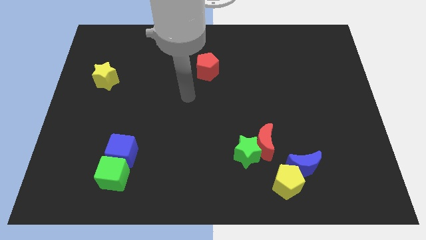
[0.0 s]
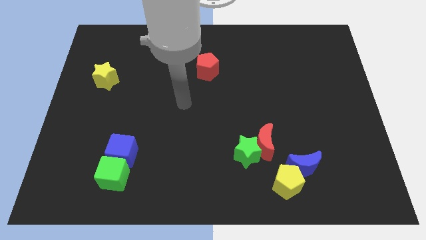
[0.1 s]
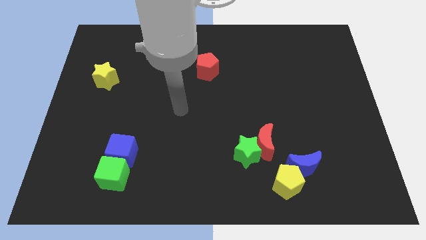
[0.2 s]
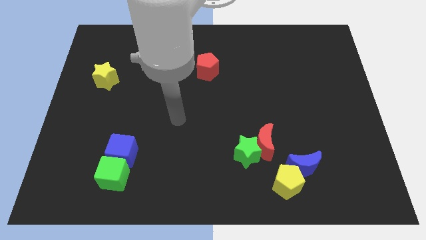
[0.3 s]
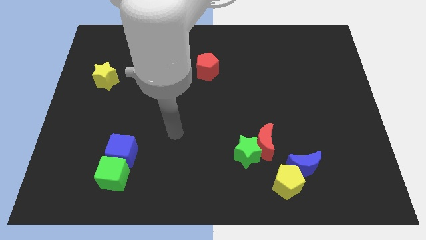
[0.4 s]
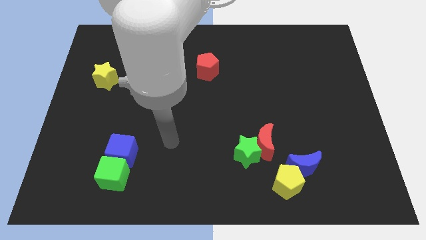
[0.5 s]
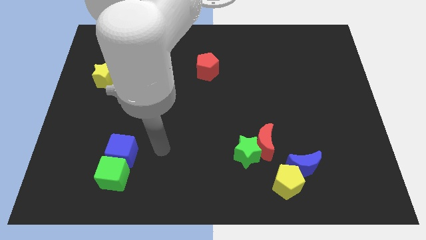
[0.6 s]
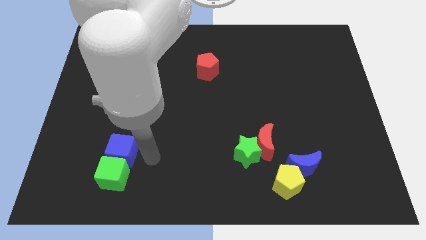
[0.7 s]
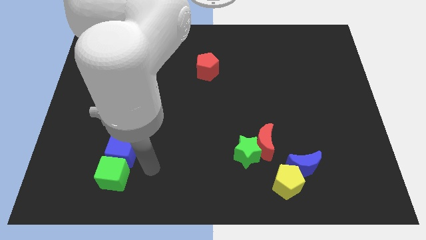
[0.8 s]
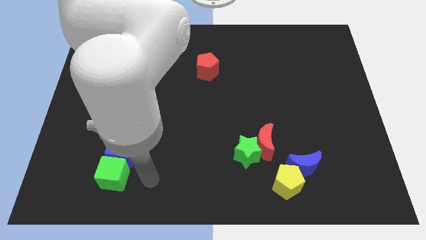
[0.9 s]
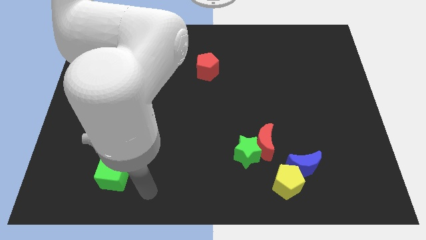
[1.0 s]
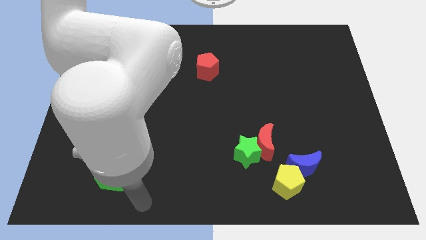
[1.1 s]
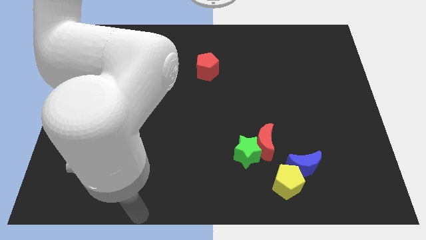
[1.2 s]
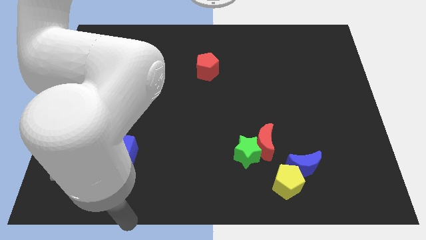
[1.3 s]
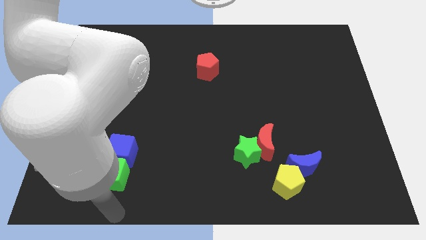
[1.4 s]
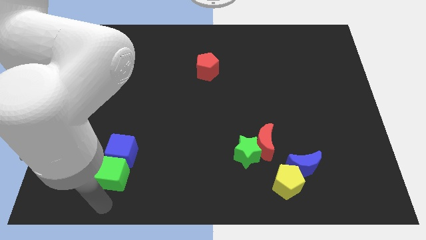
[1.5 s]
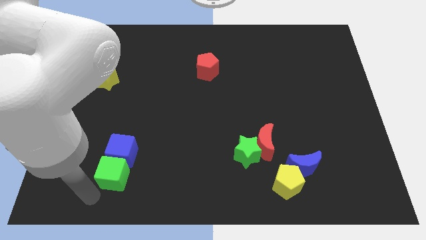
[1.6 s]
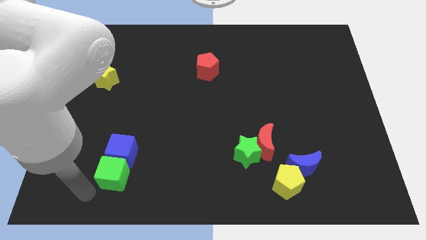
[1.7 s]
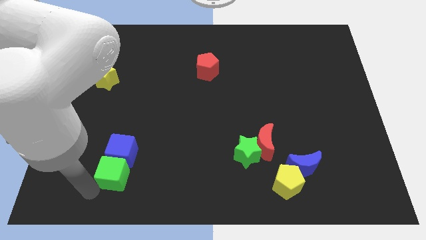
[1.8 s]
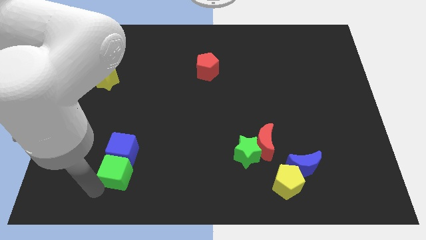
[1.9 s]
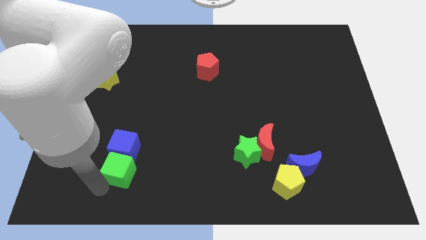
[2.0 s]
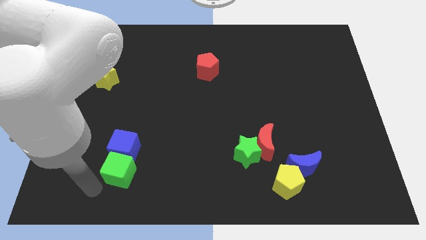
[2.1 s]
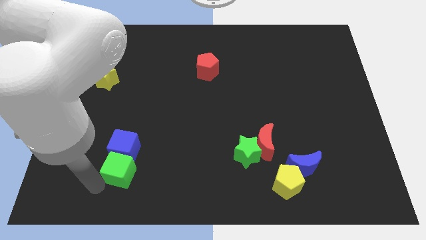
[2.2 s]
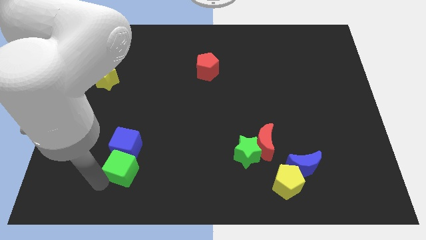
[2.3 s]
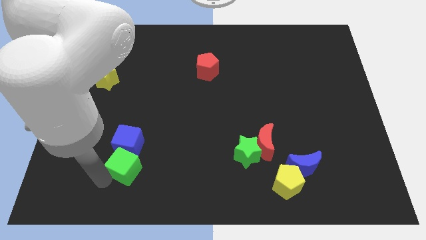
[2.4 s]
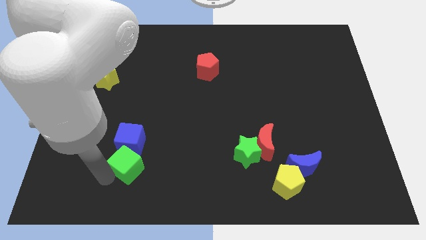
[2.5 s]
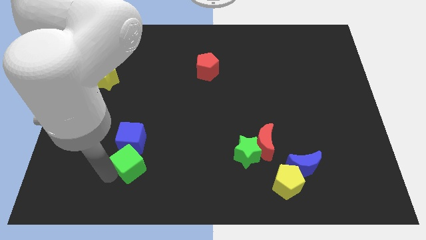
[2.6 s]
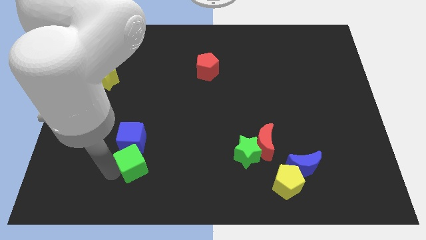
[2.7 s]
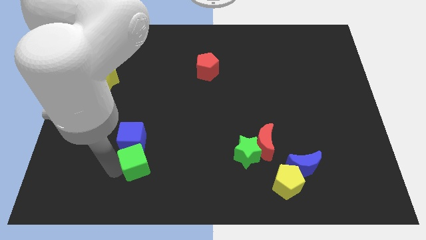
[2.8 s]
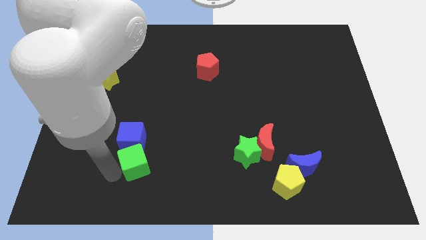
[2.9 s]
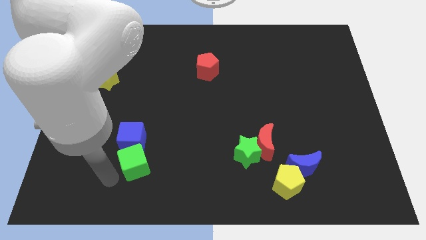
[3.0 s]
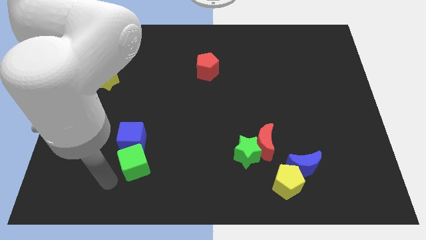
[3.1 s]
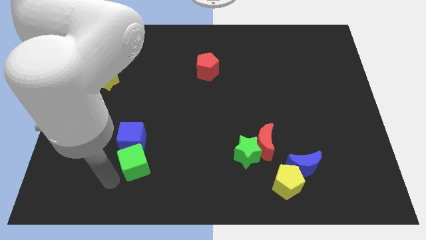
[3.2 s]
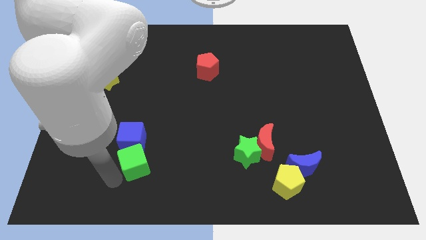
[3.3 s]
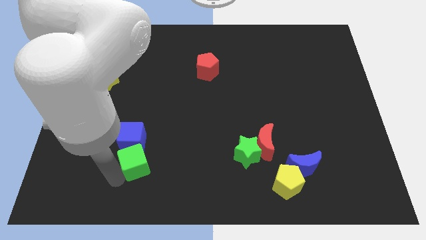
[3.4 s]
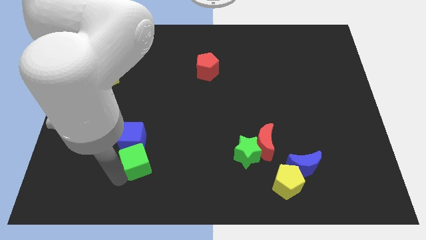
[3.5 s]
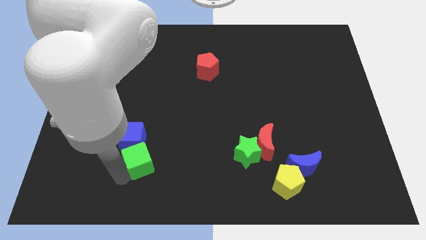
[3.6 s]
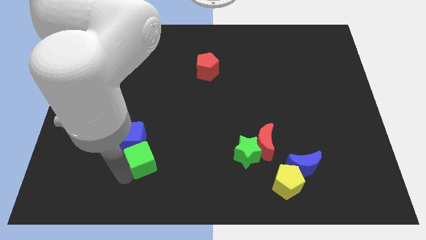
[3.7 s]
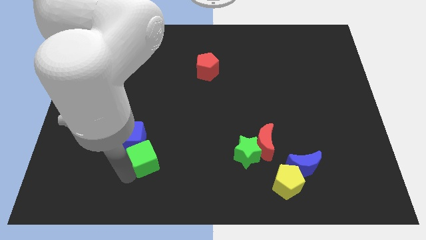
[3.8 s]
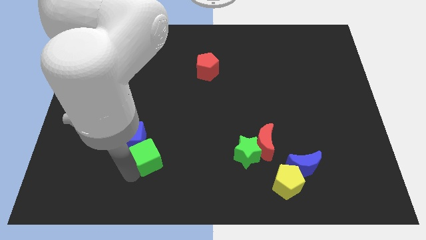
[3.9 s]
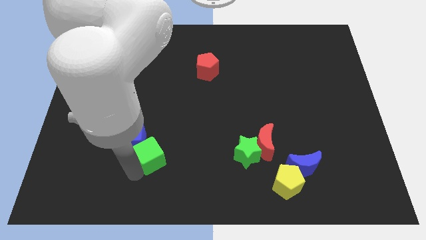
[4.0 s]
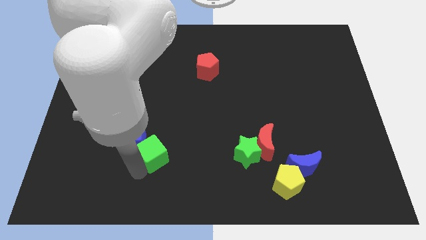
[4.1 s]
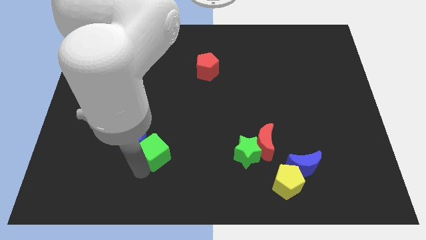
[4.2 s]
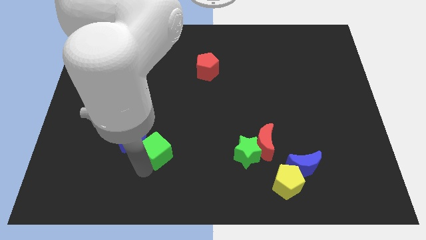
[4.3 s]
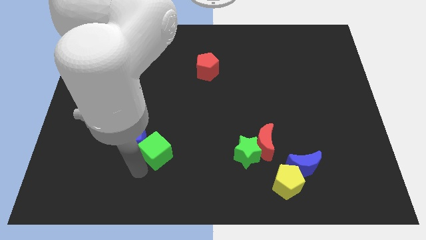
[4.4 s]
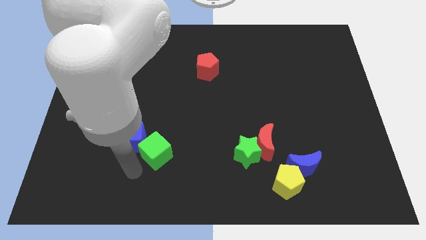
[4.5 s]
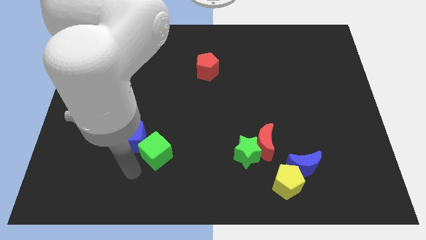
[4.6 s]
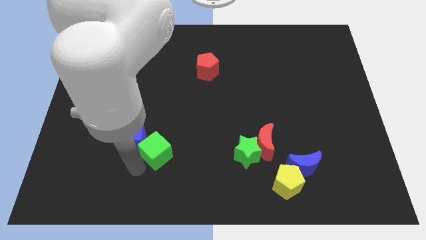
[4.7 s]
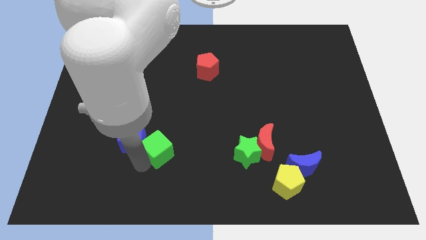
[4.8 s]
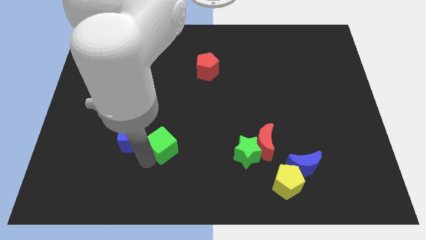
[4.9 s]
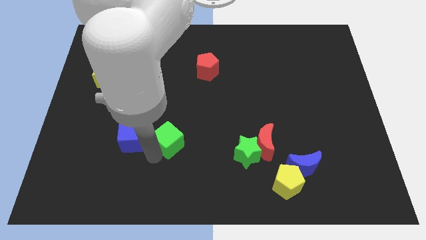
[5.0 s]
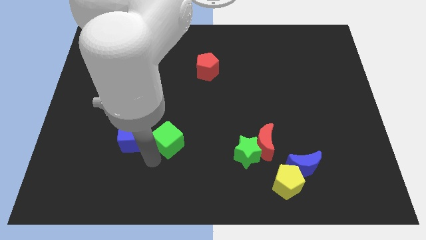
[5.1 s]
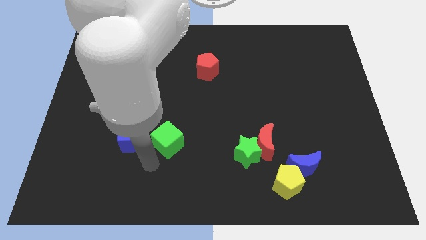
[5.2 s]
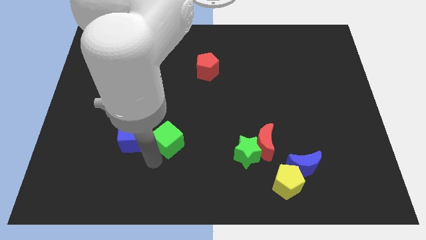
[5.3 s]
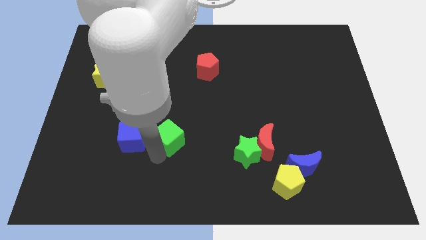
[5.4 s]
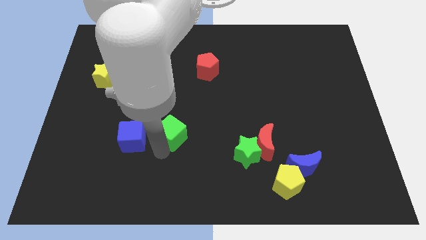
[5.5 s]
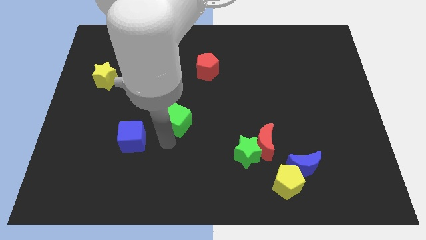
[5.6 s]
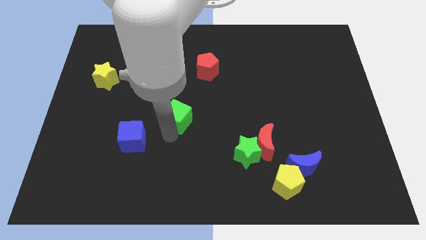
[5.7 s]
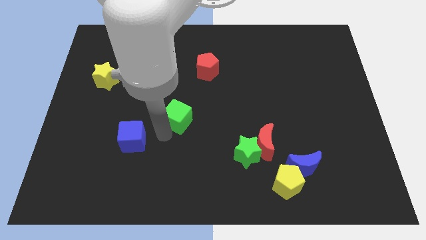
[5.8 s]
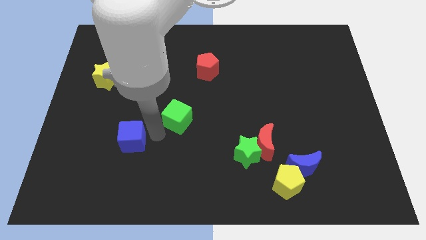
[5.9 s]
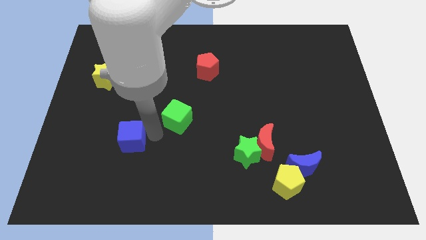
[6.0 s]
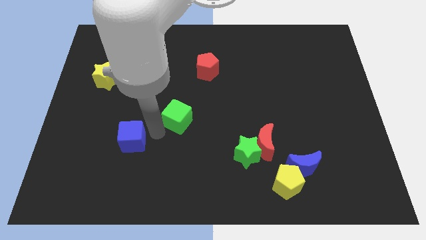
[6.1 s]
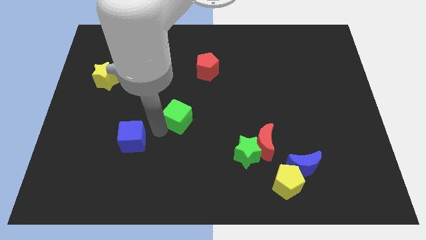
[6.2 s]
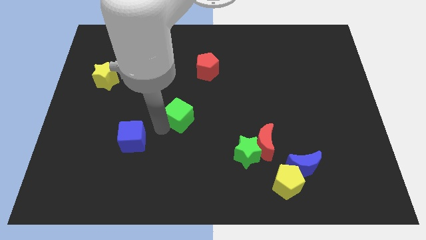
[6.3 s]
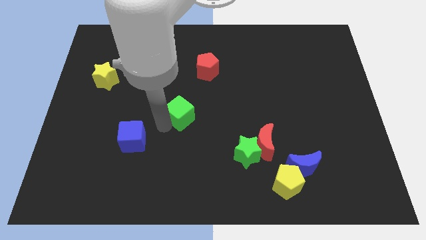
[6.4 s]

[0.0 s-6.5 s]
push the green cube upwards and then to the right

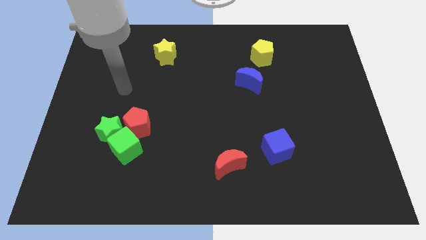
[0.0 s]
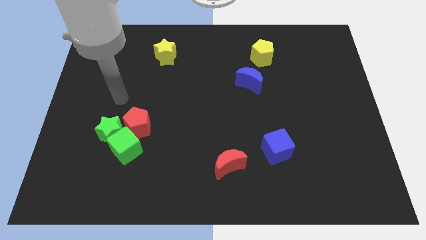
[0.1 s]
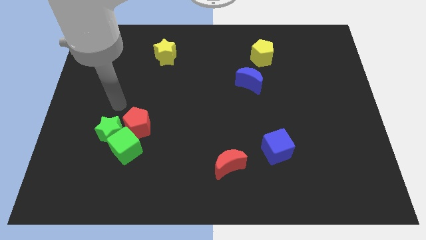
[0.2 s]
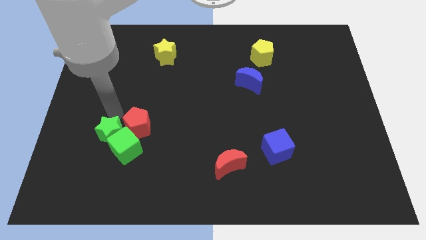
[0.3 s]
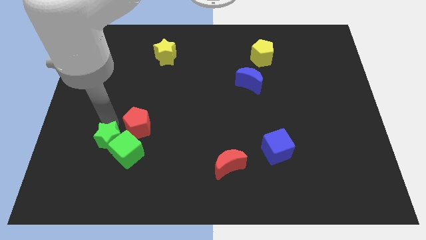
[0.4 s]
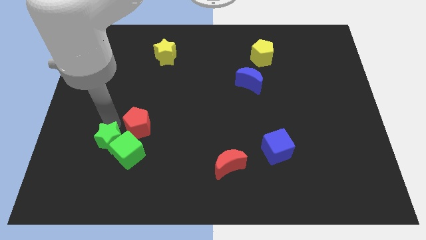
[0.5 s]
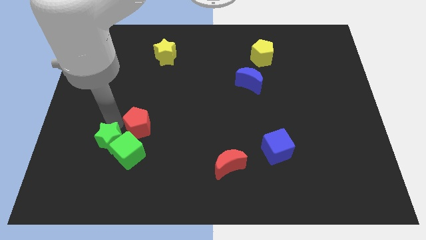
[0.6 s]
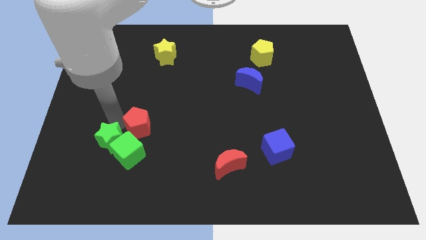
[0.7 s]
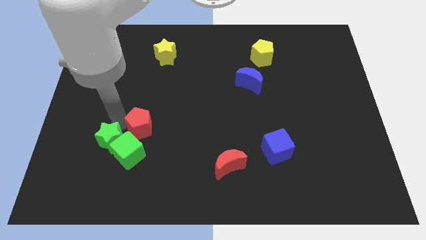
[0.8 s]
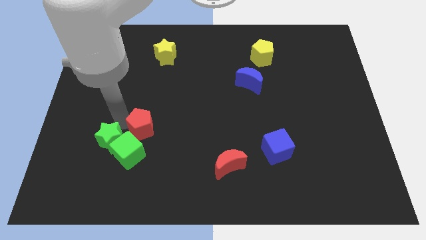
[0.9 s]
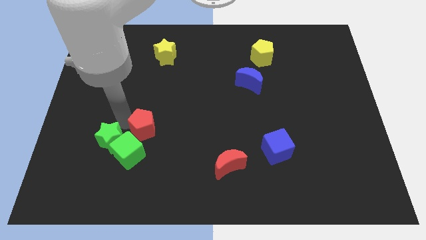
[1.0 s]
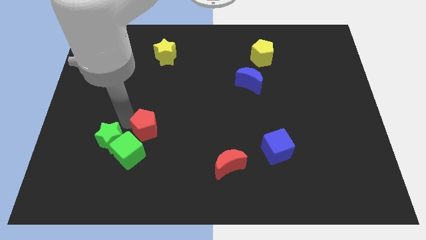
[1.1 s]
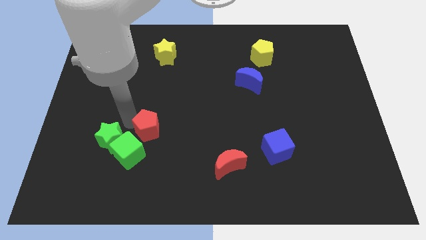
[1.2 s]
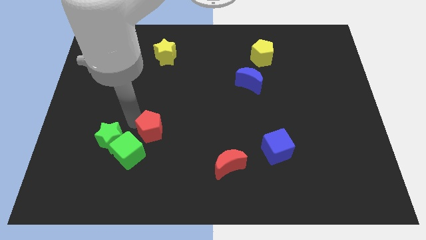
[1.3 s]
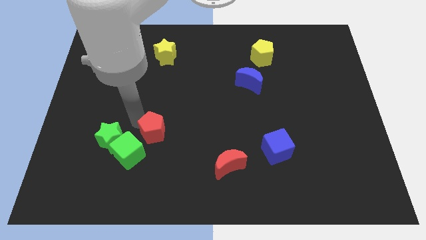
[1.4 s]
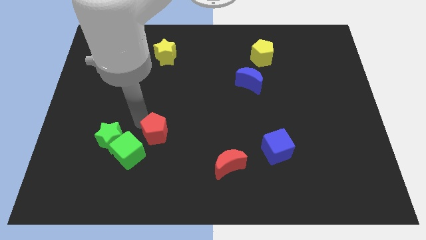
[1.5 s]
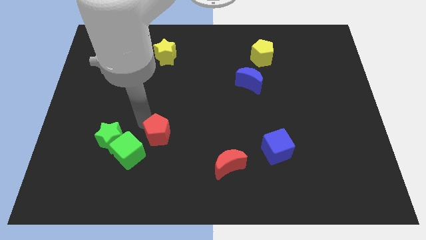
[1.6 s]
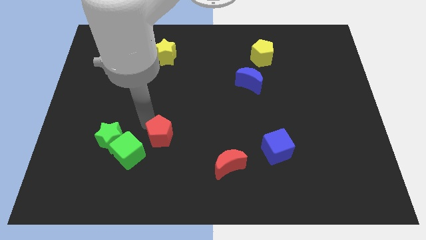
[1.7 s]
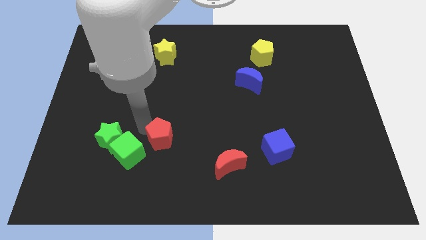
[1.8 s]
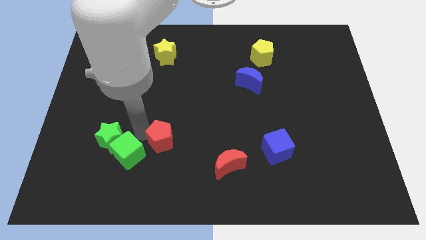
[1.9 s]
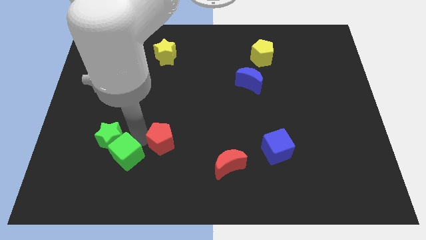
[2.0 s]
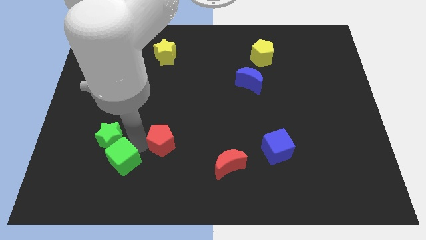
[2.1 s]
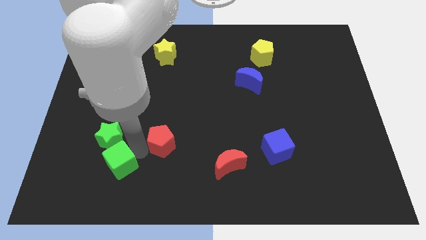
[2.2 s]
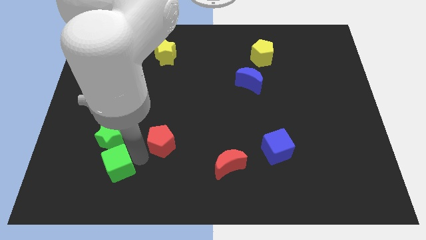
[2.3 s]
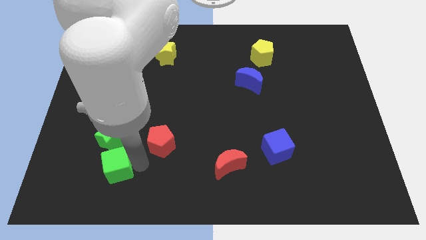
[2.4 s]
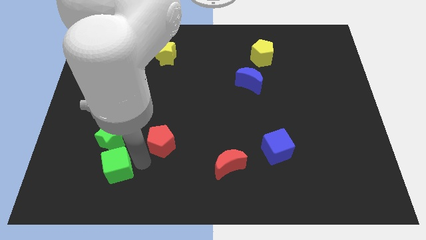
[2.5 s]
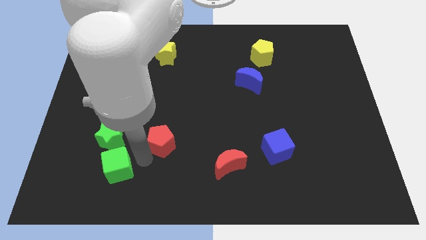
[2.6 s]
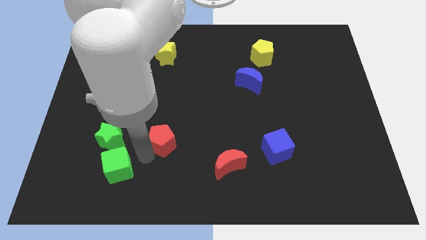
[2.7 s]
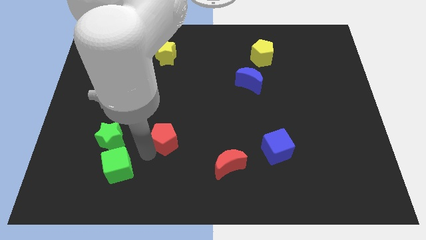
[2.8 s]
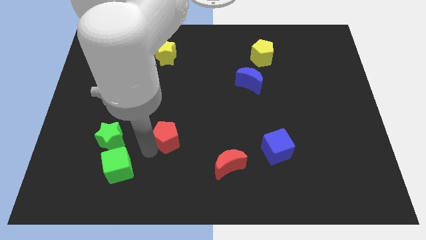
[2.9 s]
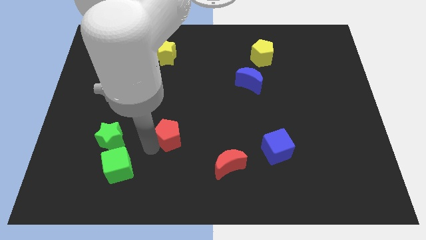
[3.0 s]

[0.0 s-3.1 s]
slide the red pentagon to the right a little bit
